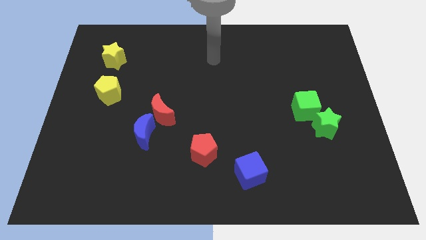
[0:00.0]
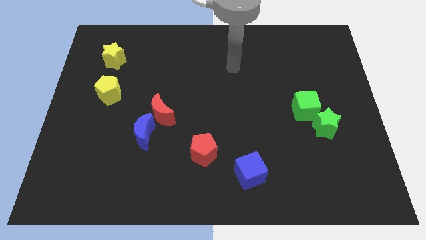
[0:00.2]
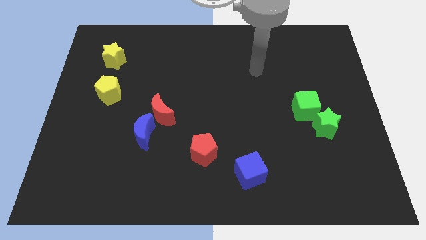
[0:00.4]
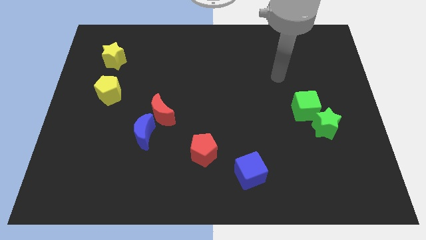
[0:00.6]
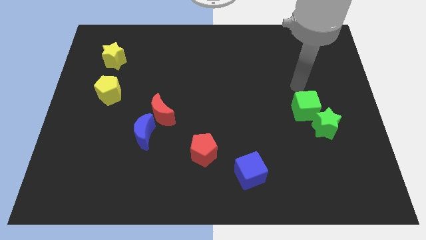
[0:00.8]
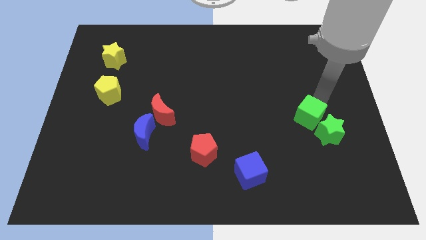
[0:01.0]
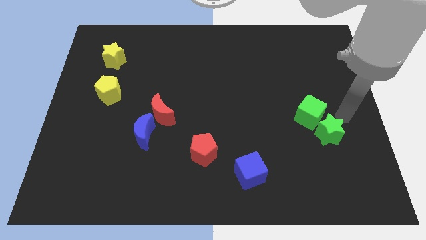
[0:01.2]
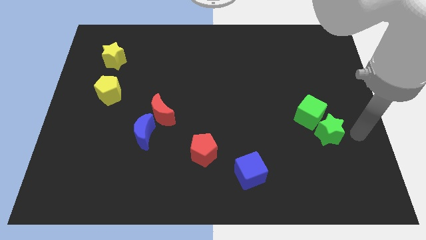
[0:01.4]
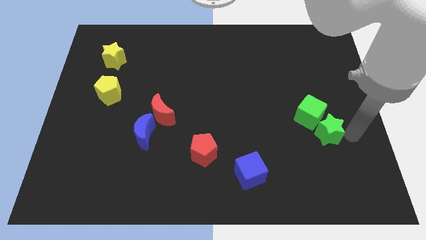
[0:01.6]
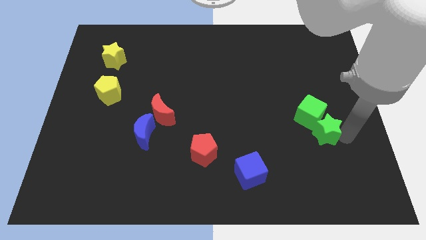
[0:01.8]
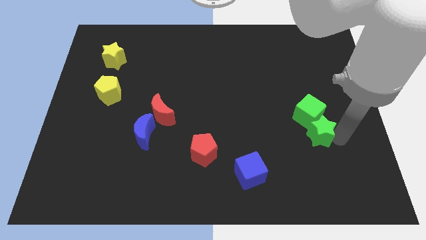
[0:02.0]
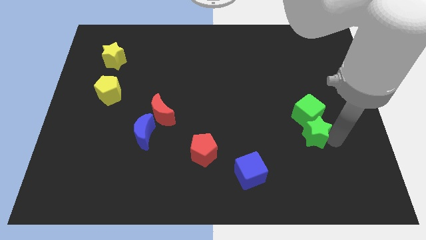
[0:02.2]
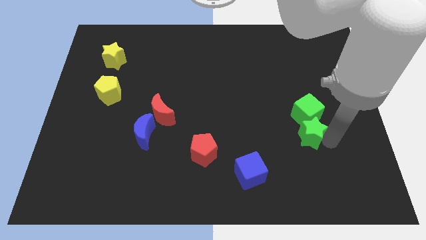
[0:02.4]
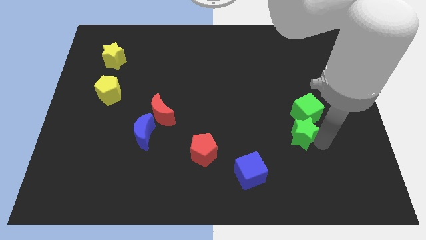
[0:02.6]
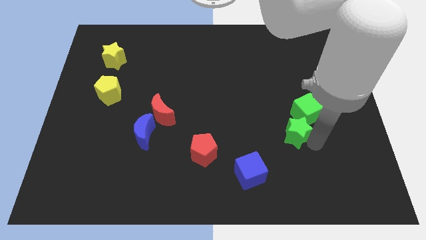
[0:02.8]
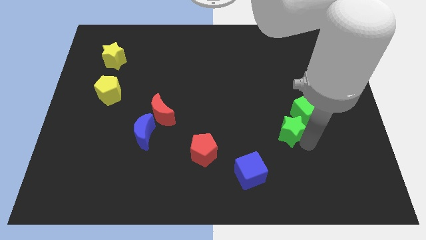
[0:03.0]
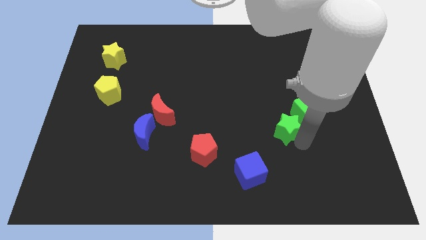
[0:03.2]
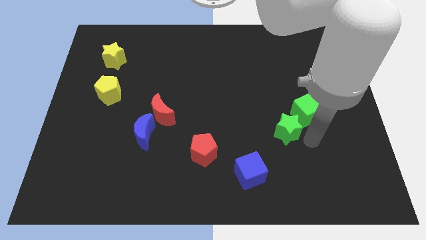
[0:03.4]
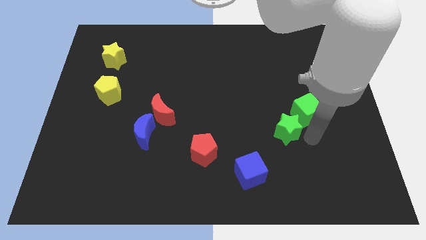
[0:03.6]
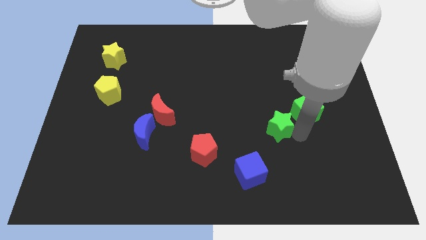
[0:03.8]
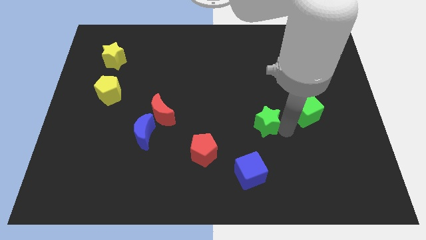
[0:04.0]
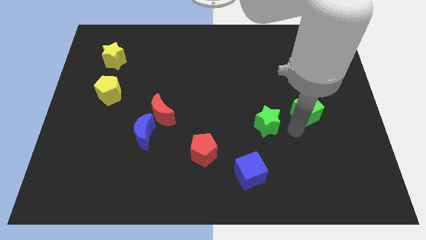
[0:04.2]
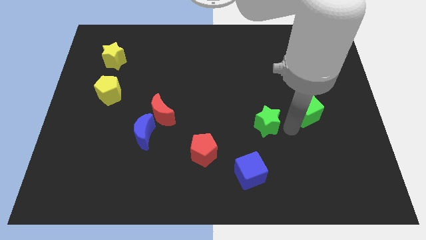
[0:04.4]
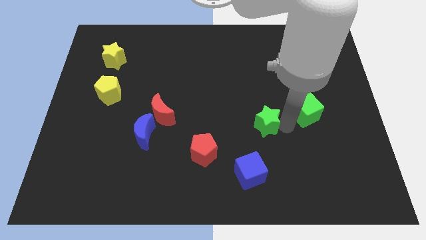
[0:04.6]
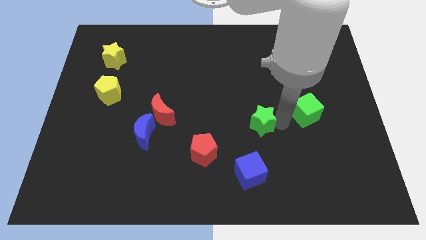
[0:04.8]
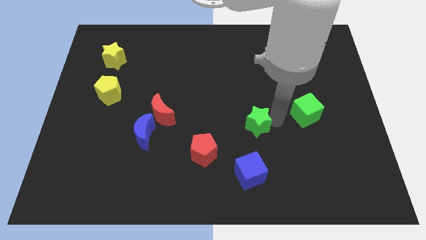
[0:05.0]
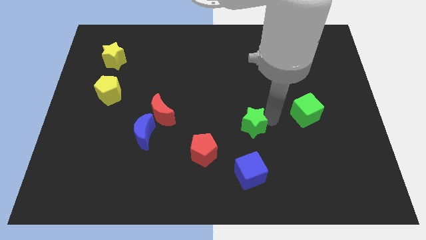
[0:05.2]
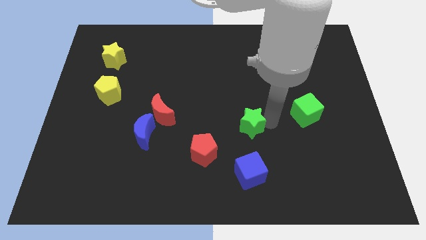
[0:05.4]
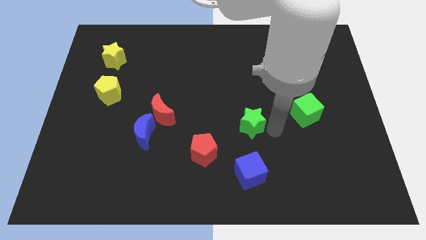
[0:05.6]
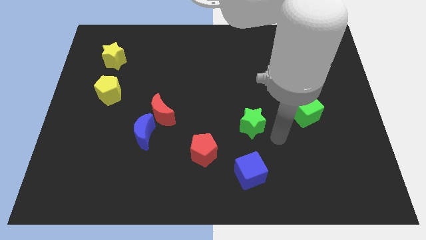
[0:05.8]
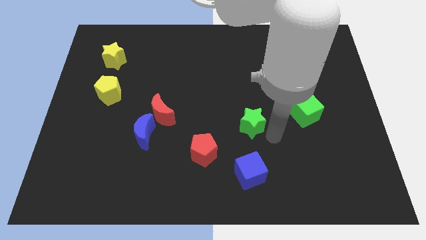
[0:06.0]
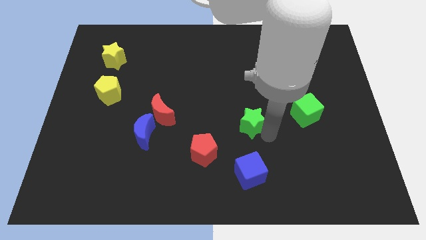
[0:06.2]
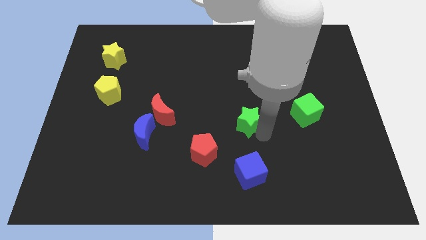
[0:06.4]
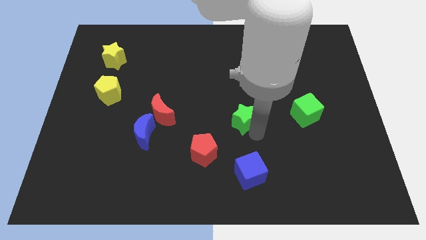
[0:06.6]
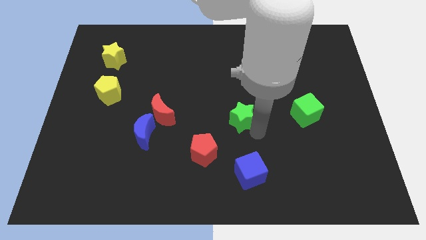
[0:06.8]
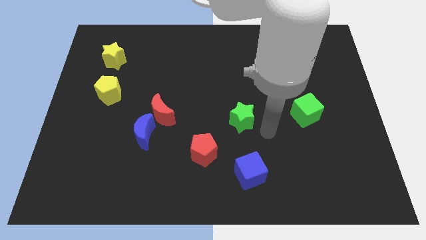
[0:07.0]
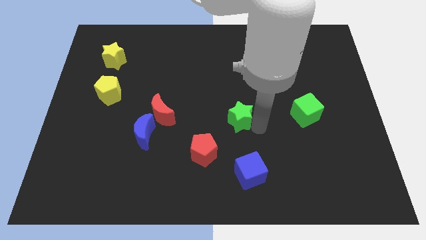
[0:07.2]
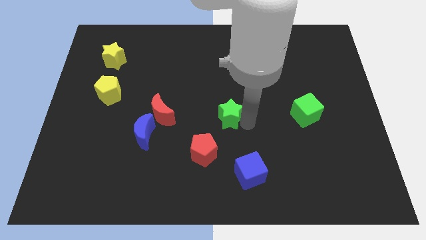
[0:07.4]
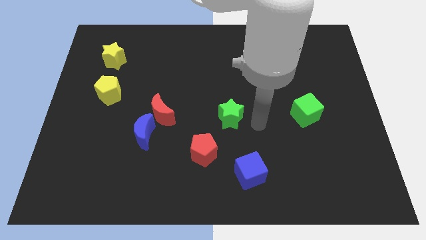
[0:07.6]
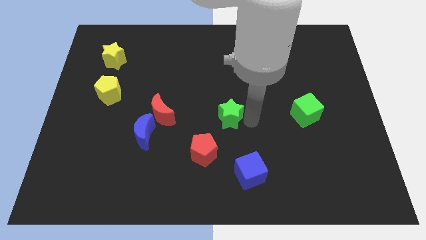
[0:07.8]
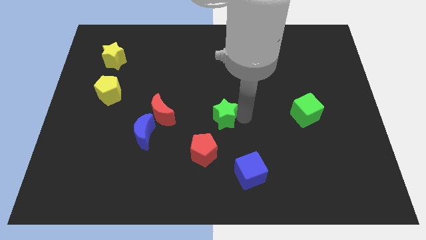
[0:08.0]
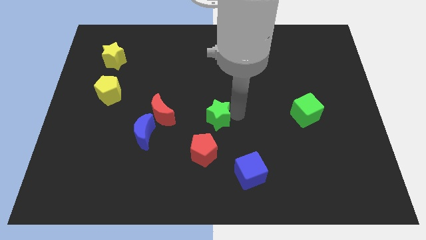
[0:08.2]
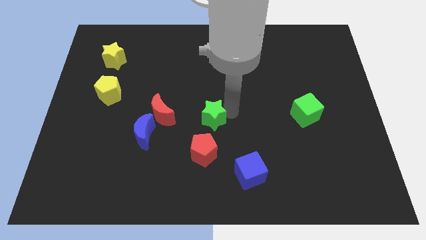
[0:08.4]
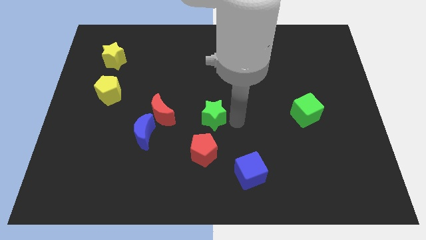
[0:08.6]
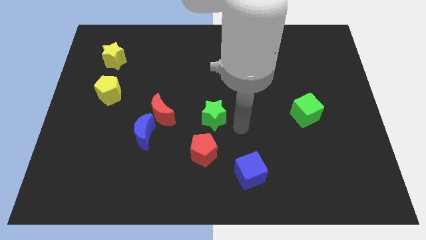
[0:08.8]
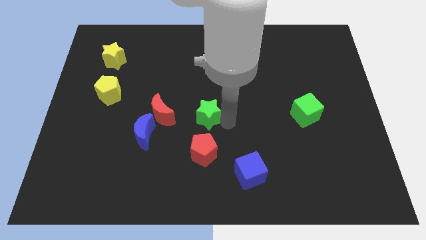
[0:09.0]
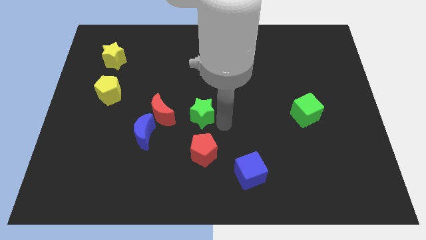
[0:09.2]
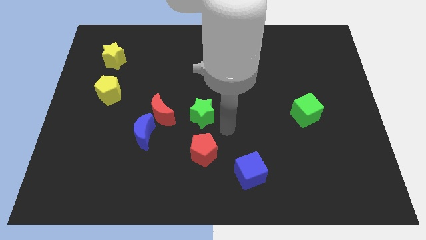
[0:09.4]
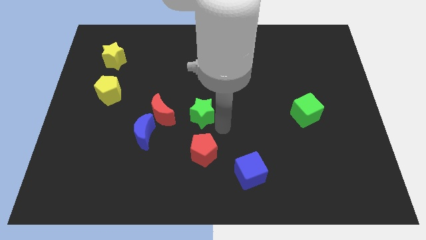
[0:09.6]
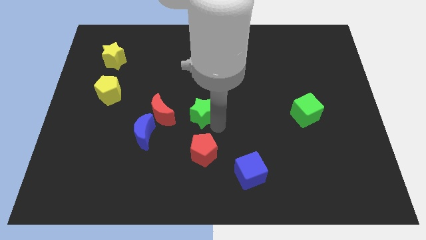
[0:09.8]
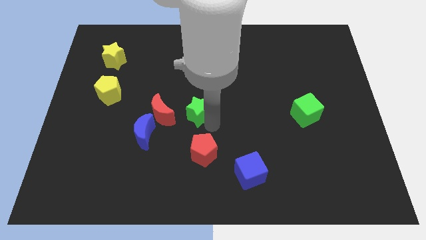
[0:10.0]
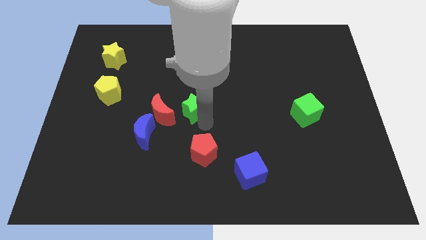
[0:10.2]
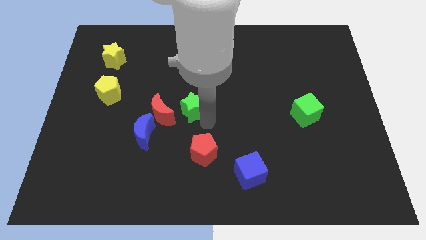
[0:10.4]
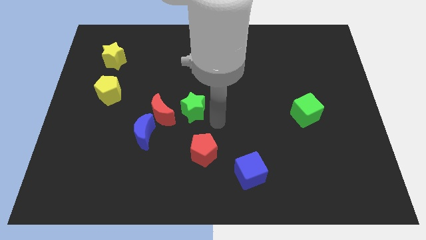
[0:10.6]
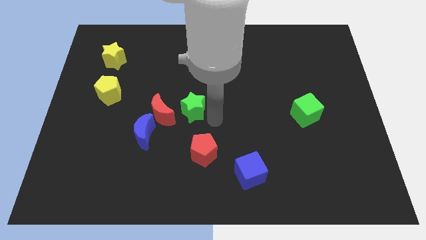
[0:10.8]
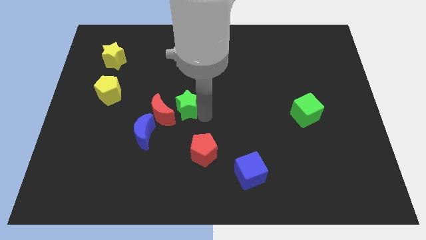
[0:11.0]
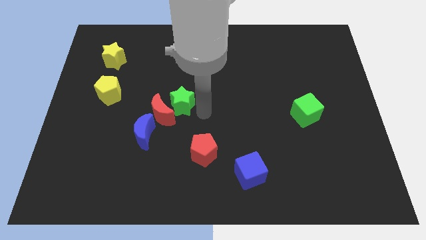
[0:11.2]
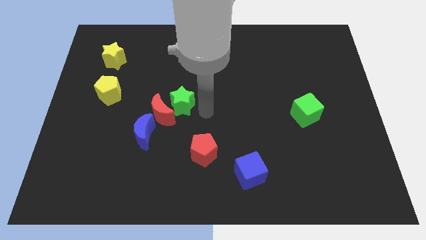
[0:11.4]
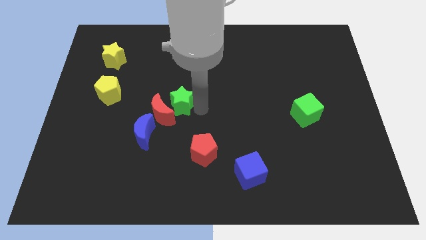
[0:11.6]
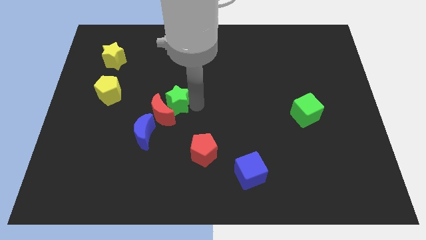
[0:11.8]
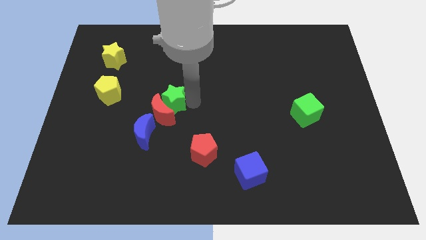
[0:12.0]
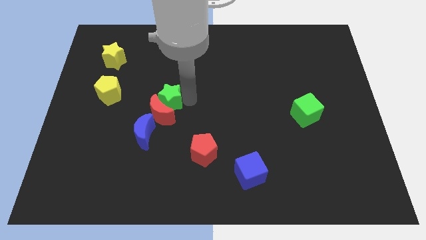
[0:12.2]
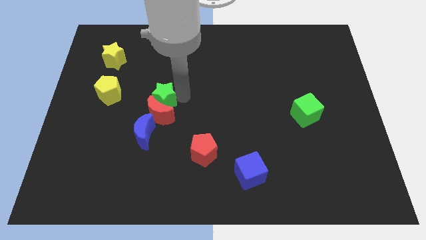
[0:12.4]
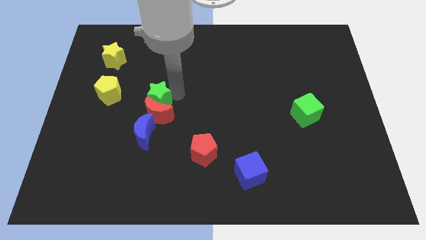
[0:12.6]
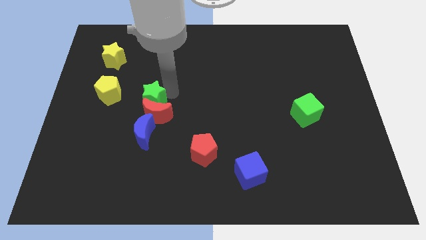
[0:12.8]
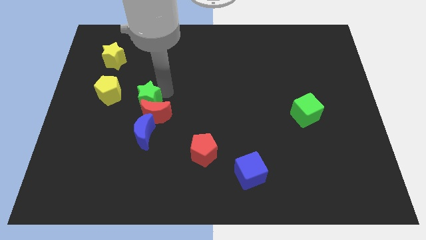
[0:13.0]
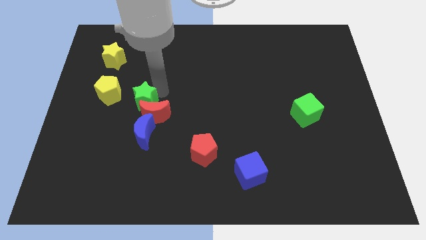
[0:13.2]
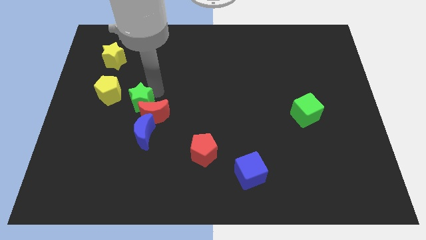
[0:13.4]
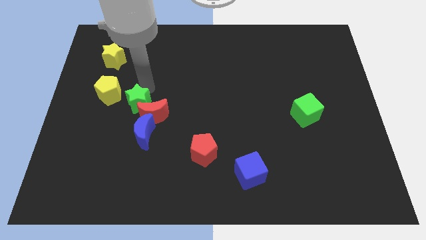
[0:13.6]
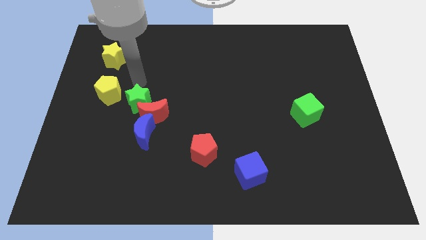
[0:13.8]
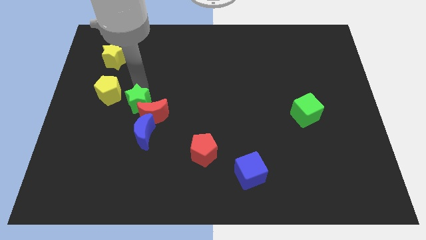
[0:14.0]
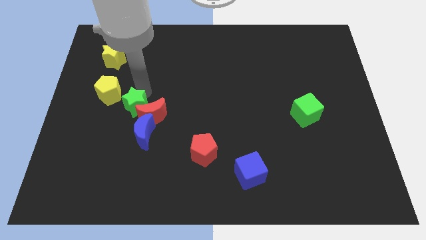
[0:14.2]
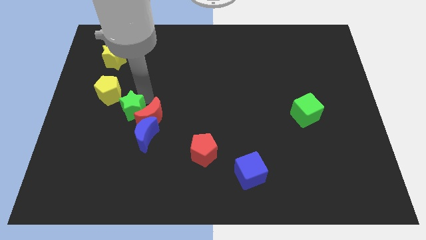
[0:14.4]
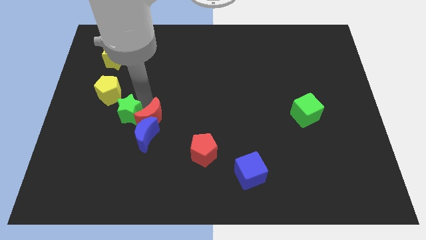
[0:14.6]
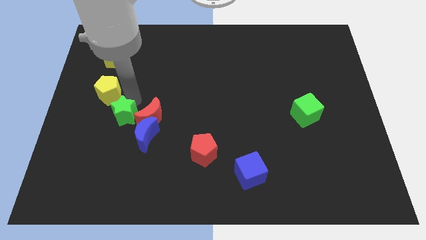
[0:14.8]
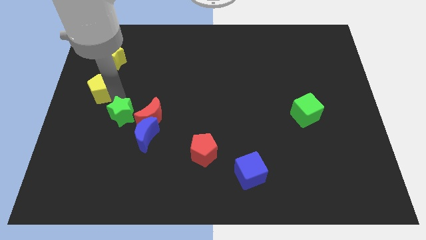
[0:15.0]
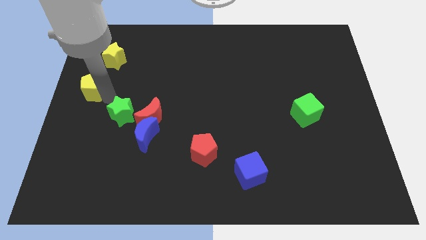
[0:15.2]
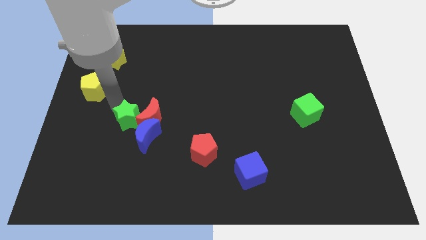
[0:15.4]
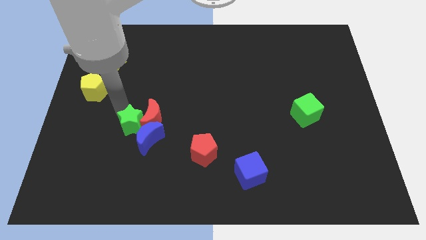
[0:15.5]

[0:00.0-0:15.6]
move the green star towards the blue moon
